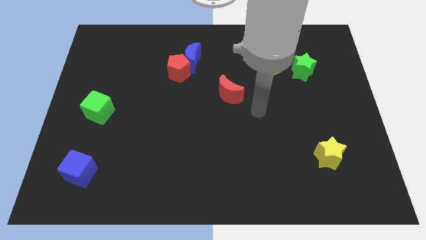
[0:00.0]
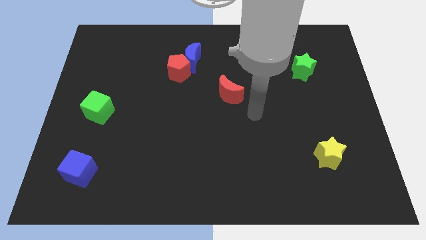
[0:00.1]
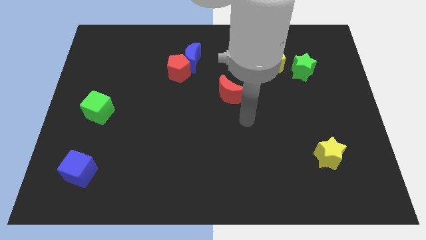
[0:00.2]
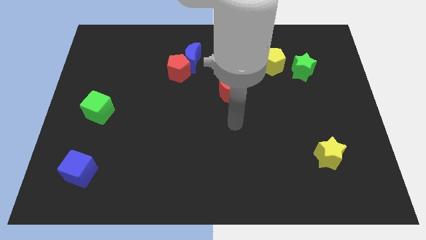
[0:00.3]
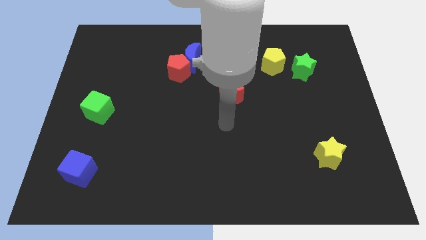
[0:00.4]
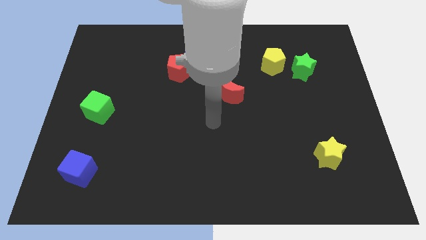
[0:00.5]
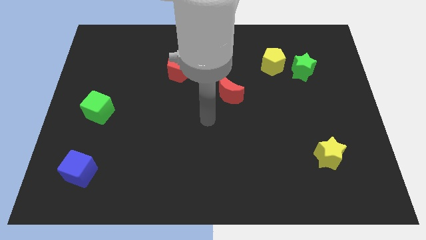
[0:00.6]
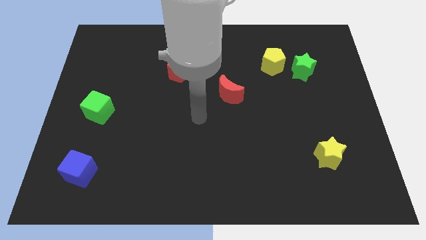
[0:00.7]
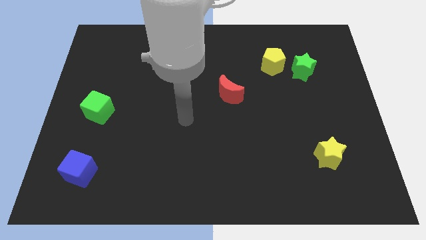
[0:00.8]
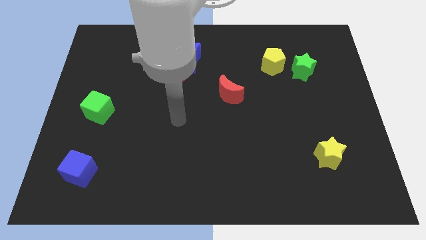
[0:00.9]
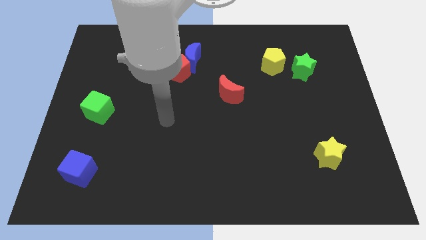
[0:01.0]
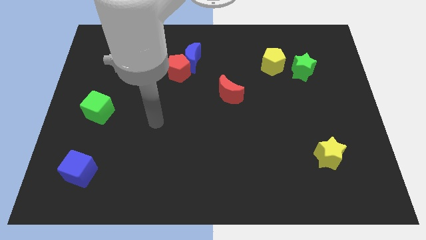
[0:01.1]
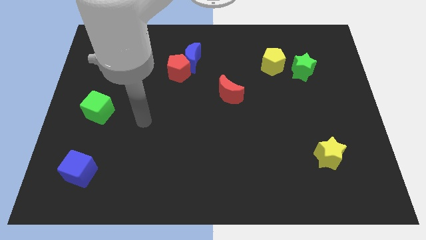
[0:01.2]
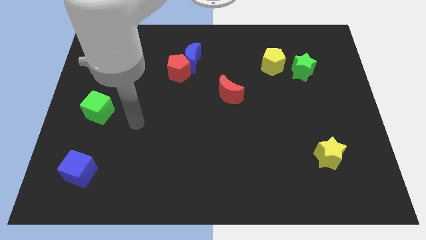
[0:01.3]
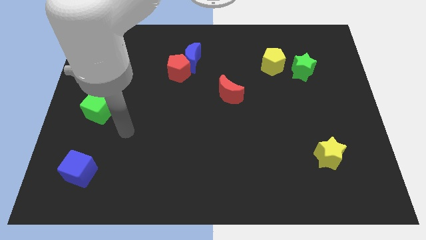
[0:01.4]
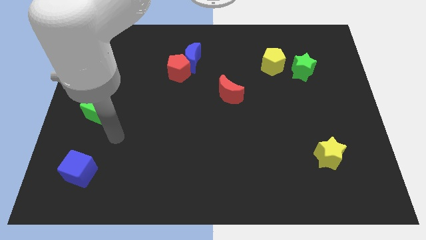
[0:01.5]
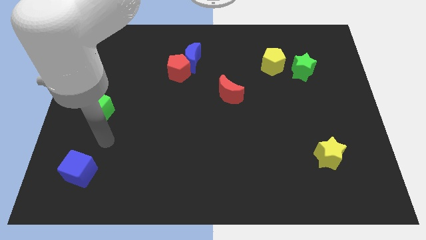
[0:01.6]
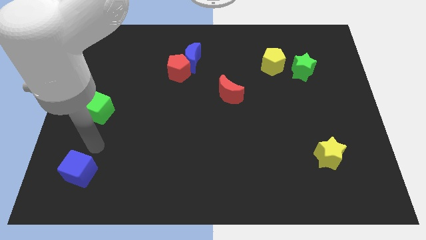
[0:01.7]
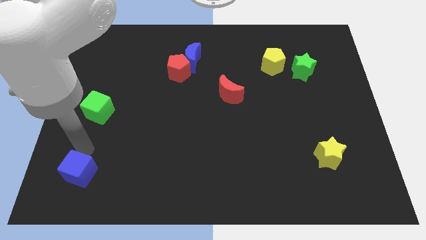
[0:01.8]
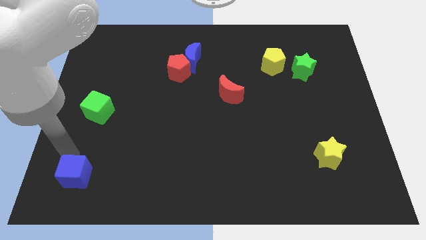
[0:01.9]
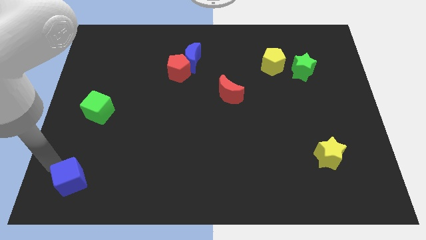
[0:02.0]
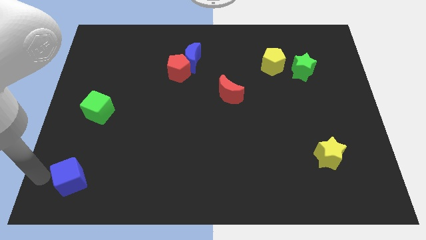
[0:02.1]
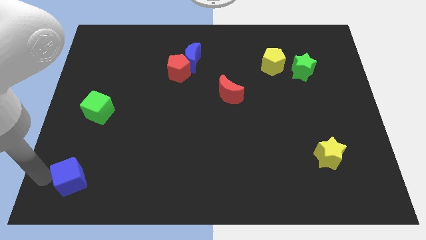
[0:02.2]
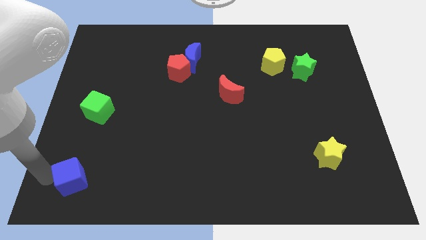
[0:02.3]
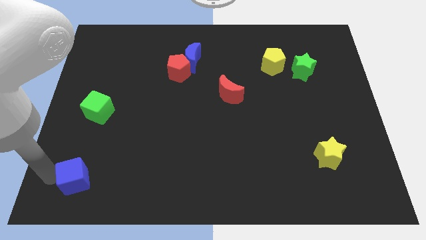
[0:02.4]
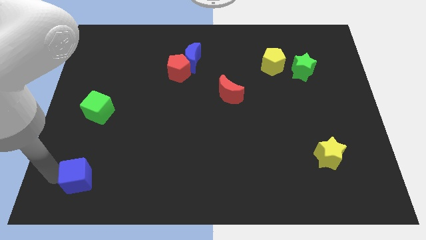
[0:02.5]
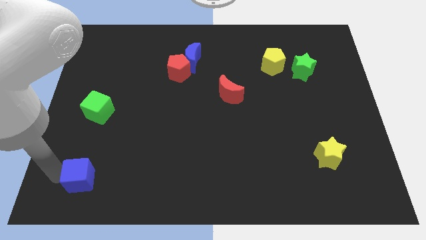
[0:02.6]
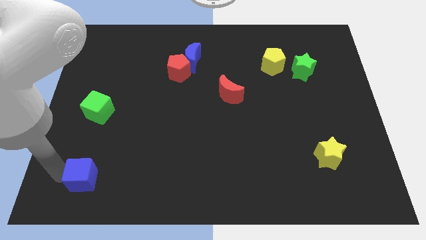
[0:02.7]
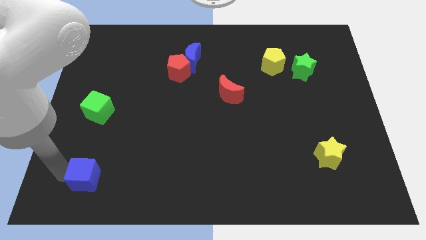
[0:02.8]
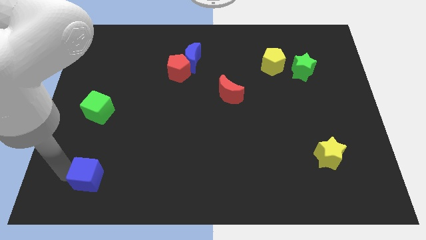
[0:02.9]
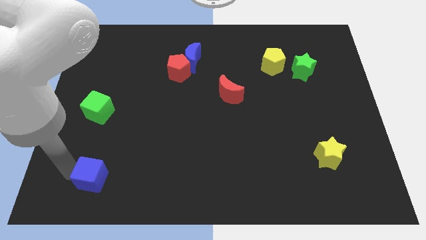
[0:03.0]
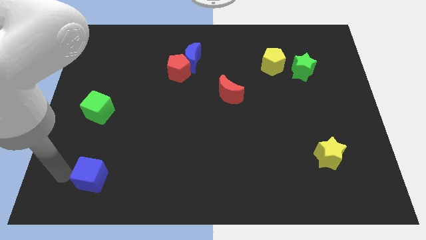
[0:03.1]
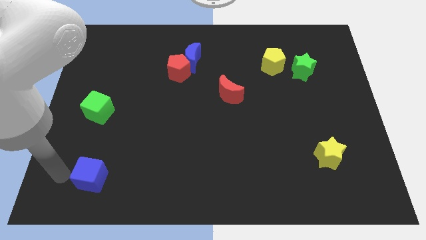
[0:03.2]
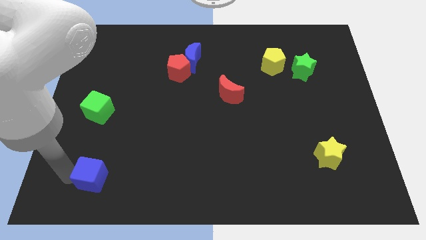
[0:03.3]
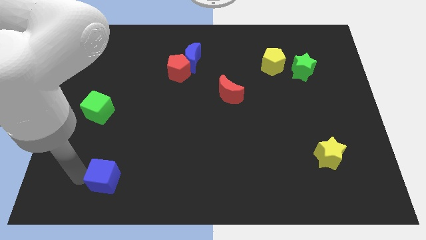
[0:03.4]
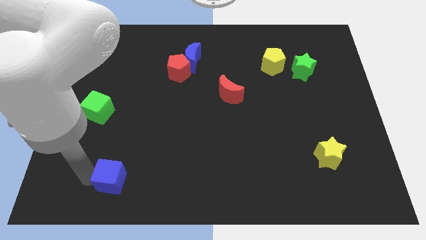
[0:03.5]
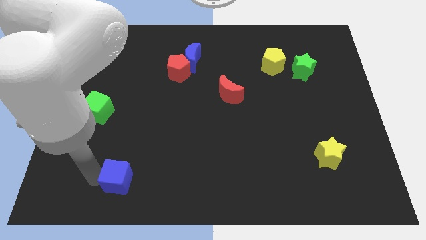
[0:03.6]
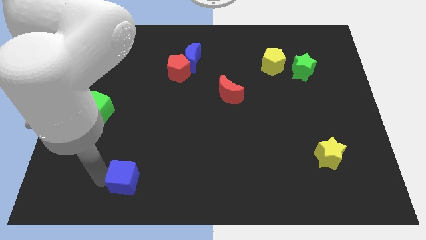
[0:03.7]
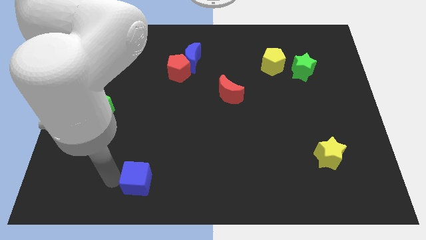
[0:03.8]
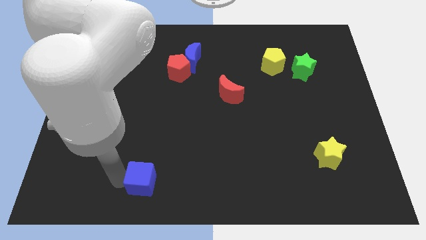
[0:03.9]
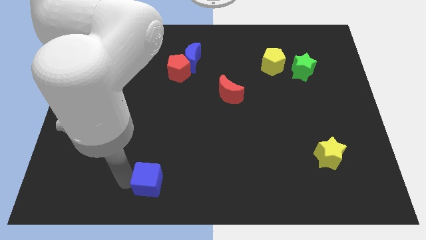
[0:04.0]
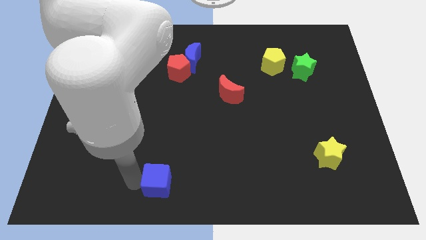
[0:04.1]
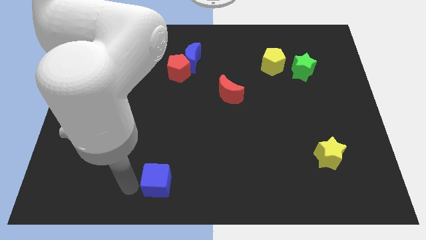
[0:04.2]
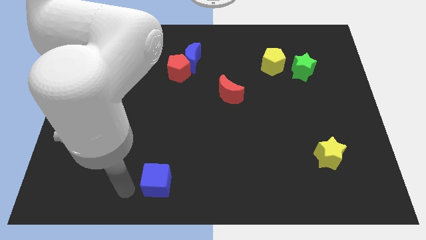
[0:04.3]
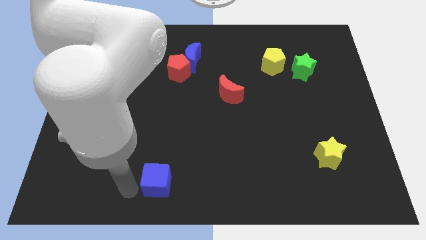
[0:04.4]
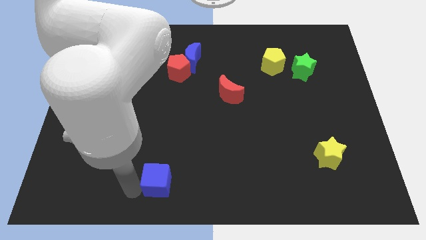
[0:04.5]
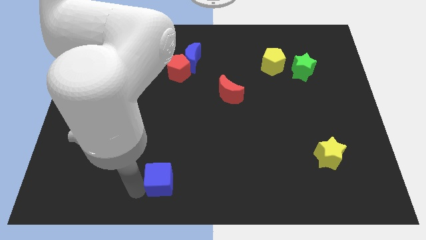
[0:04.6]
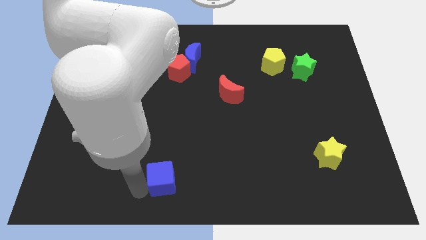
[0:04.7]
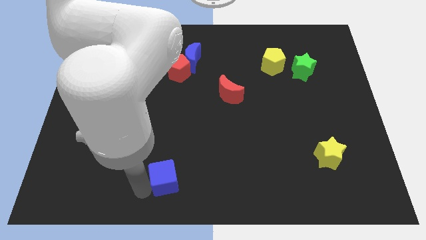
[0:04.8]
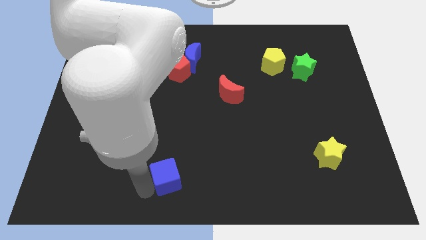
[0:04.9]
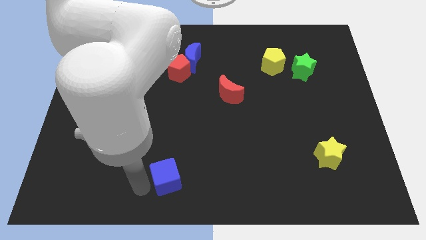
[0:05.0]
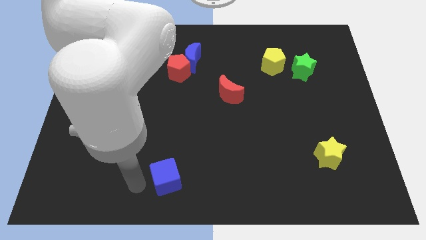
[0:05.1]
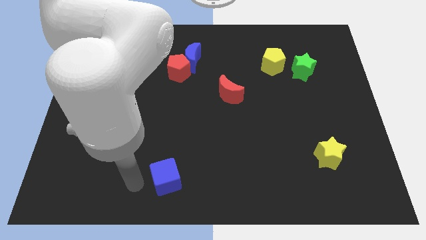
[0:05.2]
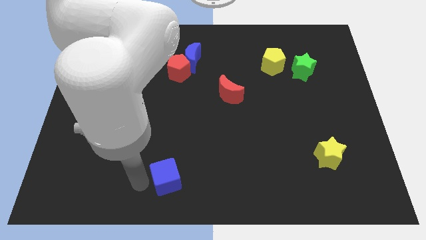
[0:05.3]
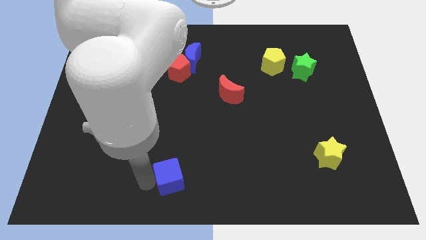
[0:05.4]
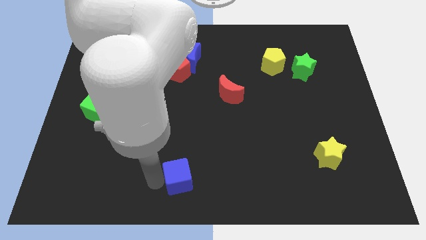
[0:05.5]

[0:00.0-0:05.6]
push the blue cube right

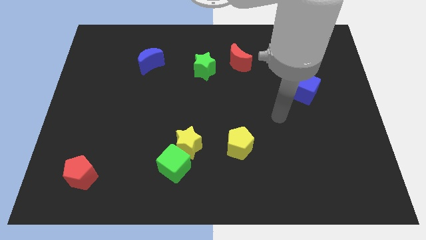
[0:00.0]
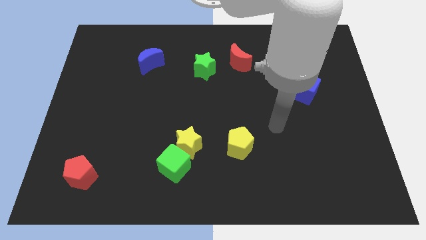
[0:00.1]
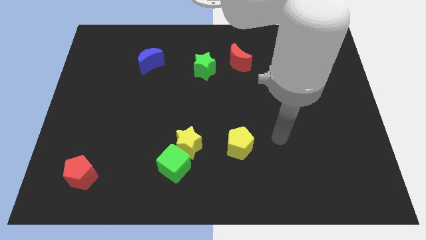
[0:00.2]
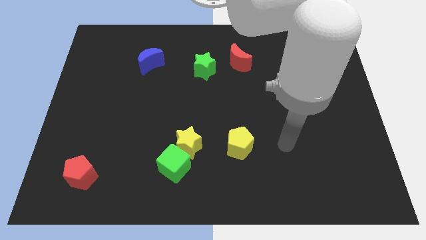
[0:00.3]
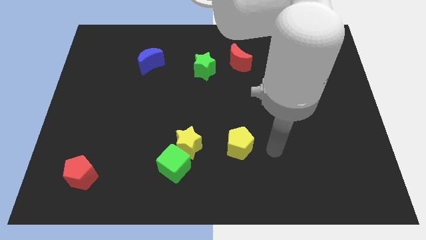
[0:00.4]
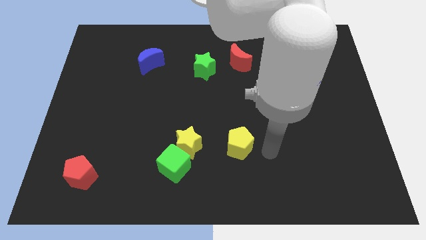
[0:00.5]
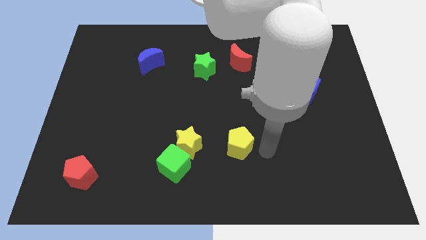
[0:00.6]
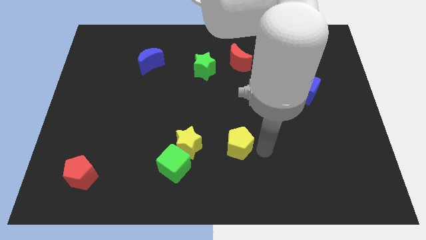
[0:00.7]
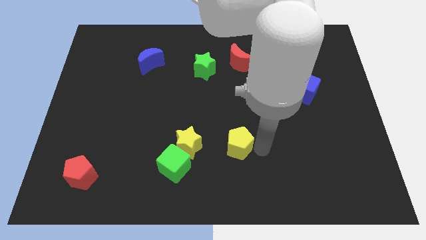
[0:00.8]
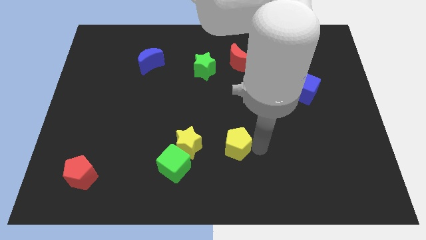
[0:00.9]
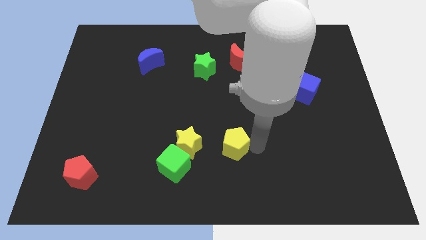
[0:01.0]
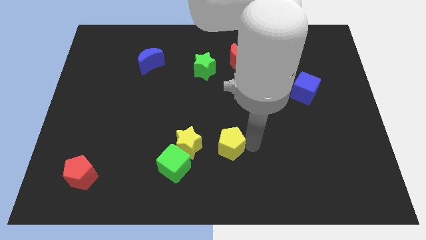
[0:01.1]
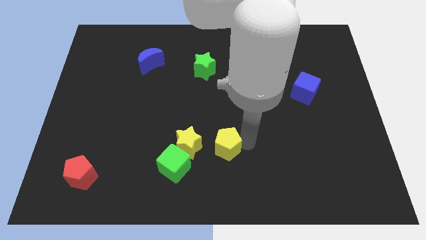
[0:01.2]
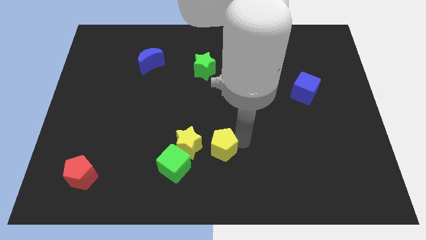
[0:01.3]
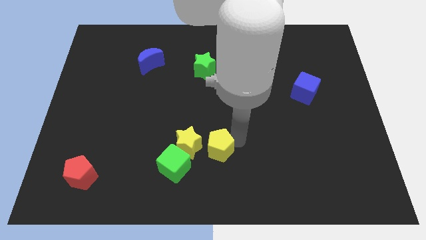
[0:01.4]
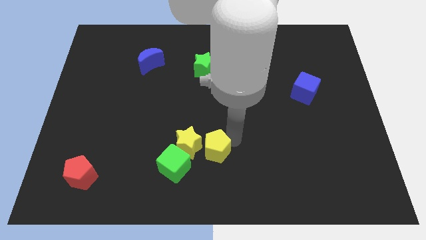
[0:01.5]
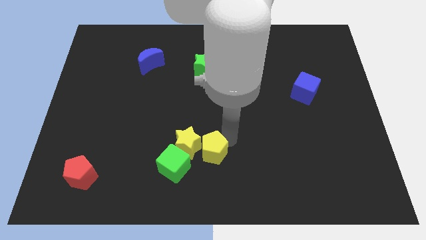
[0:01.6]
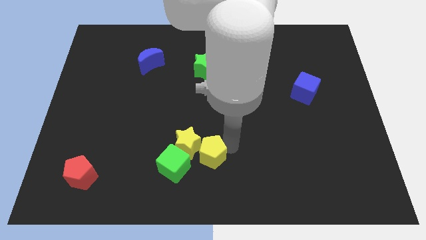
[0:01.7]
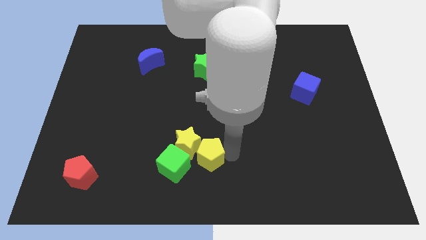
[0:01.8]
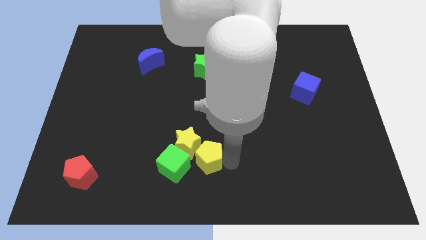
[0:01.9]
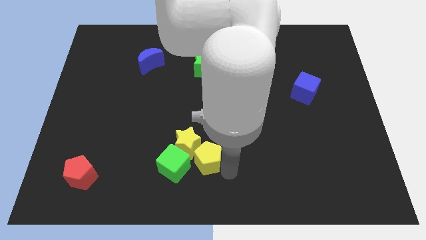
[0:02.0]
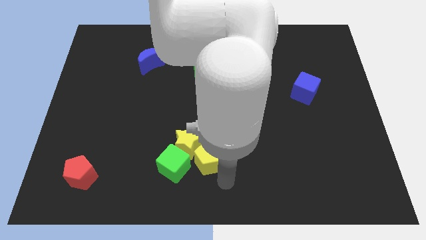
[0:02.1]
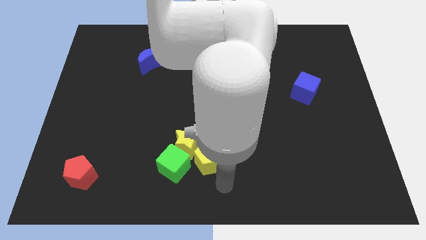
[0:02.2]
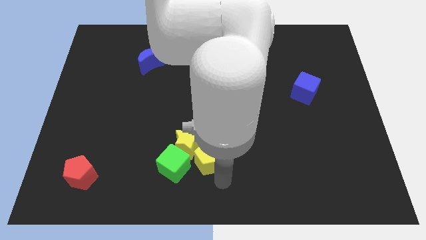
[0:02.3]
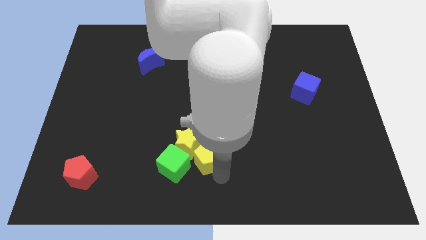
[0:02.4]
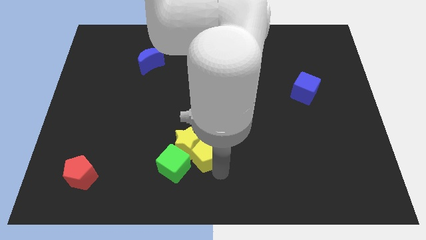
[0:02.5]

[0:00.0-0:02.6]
slightly push the yellow pentagon to the left
